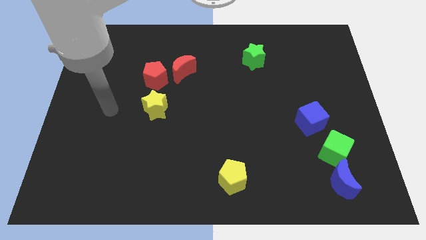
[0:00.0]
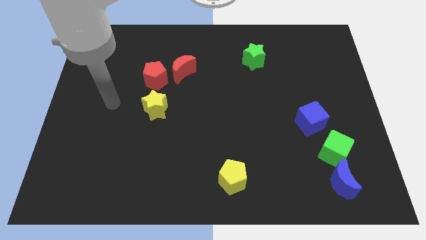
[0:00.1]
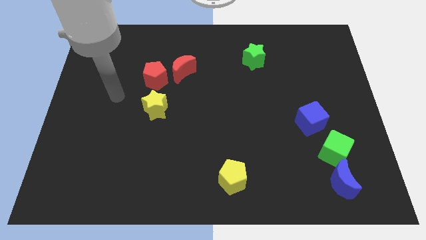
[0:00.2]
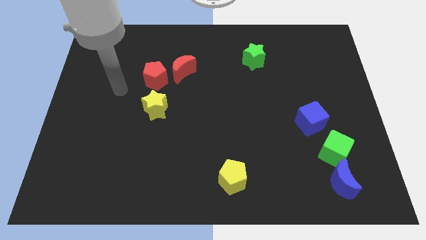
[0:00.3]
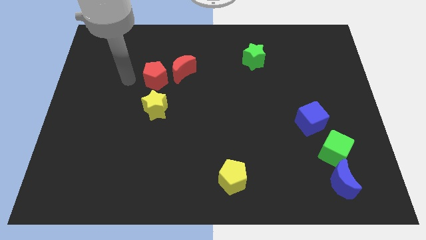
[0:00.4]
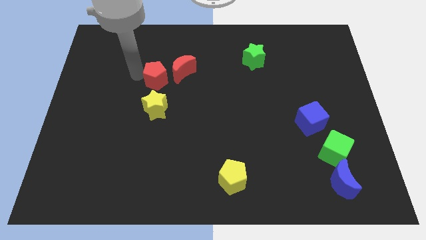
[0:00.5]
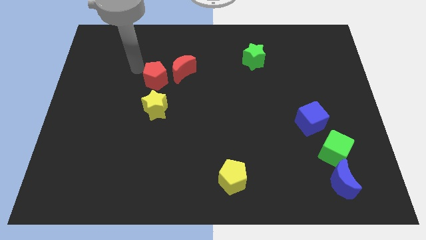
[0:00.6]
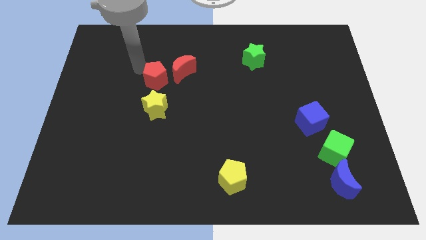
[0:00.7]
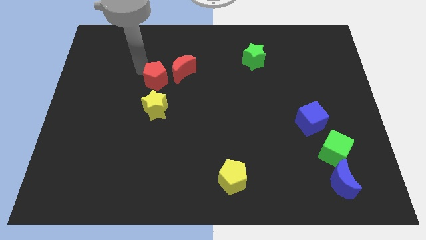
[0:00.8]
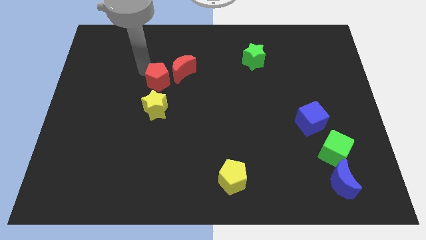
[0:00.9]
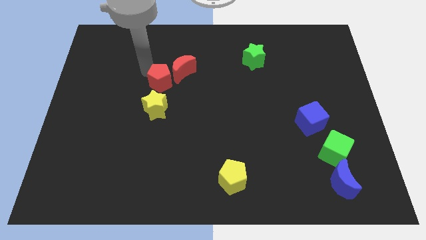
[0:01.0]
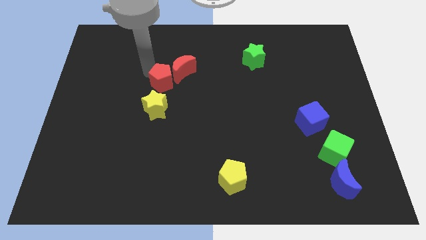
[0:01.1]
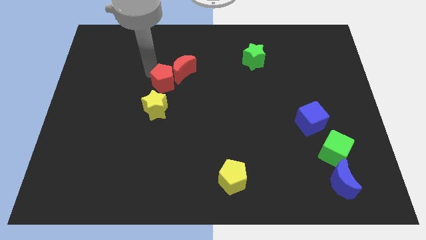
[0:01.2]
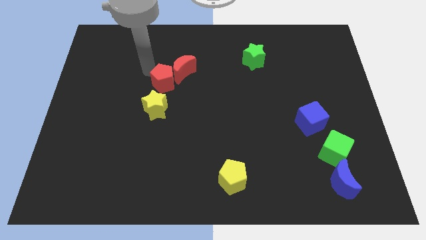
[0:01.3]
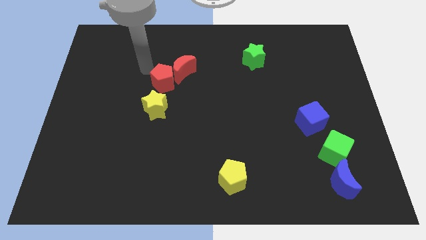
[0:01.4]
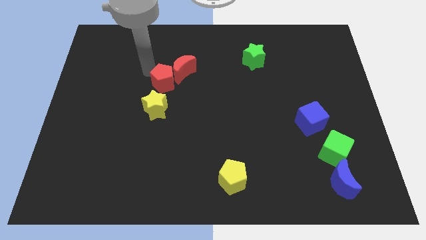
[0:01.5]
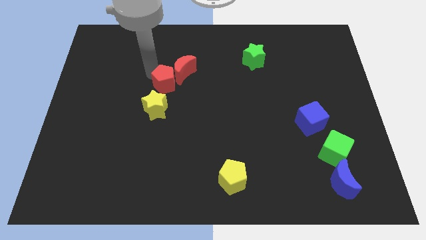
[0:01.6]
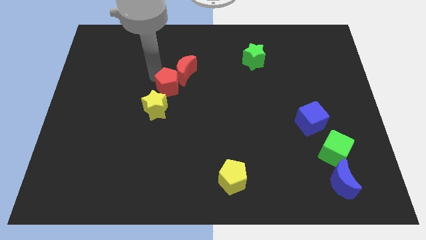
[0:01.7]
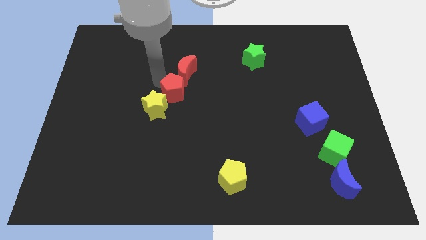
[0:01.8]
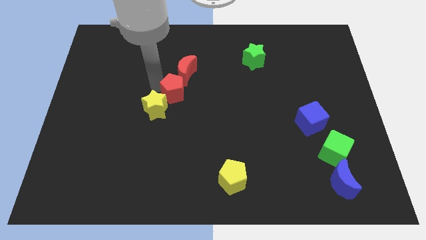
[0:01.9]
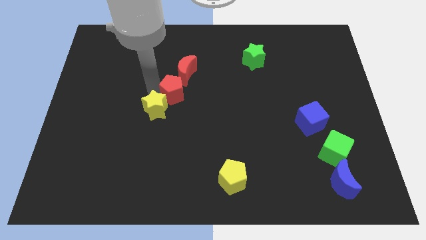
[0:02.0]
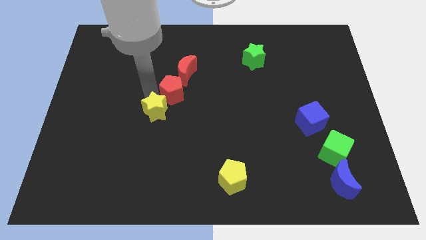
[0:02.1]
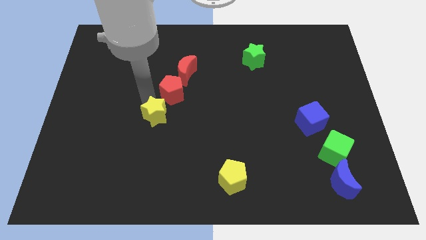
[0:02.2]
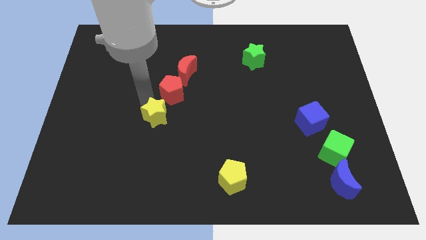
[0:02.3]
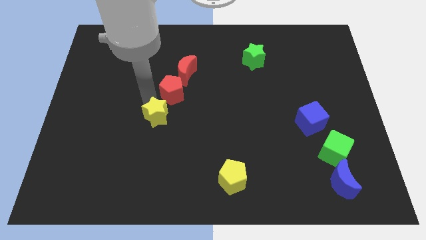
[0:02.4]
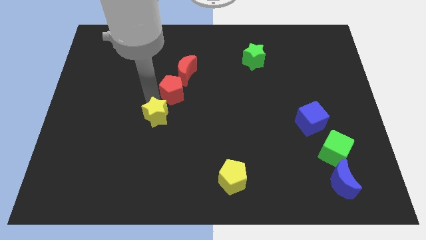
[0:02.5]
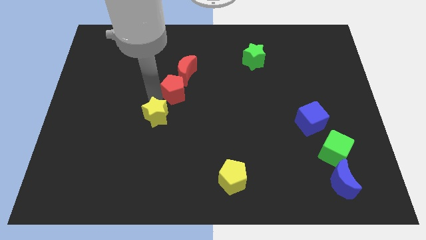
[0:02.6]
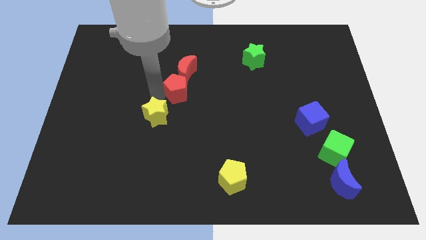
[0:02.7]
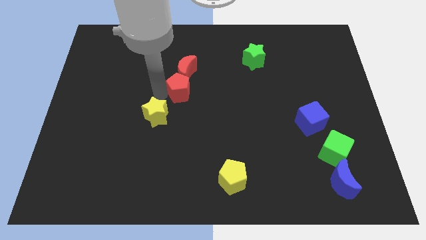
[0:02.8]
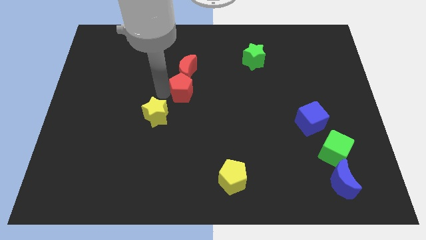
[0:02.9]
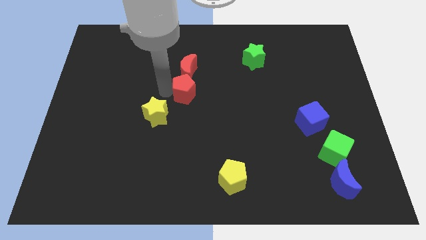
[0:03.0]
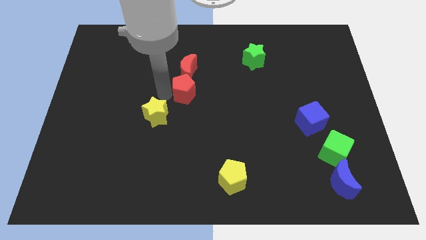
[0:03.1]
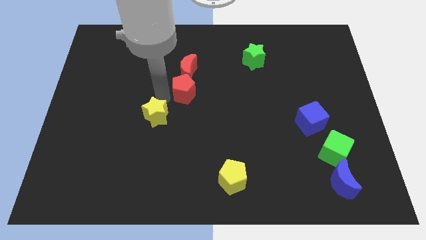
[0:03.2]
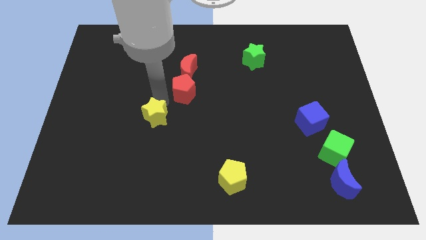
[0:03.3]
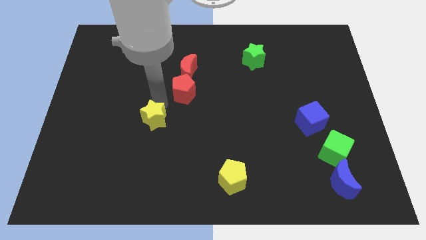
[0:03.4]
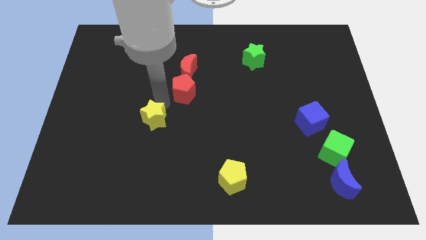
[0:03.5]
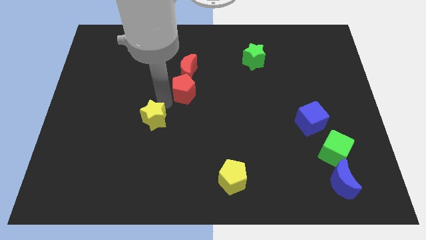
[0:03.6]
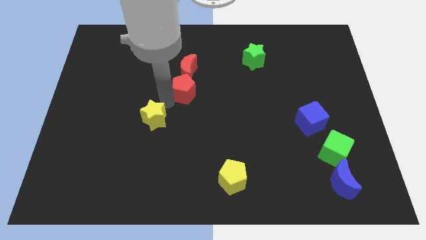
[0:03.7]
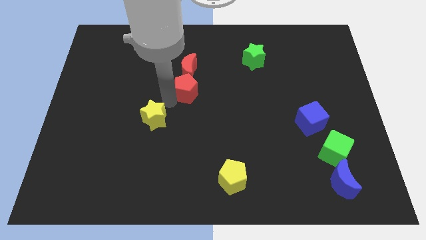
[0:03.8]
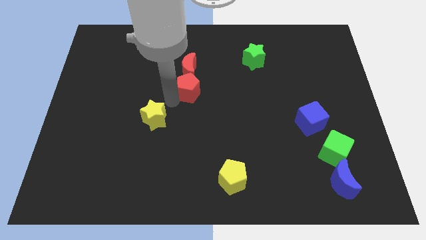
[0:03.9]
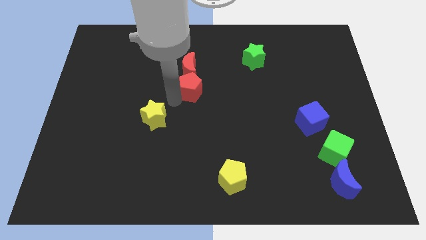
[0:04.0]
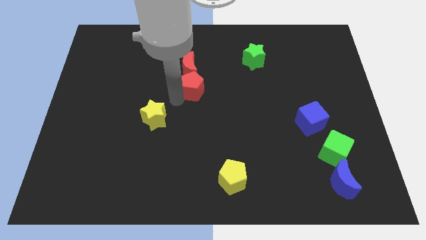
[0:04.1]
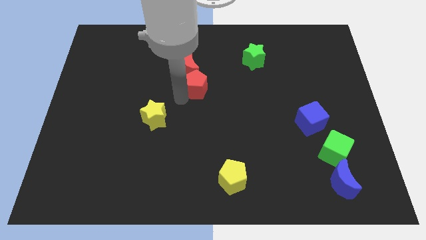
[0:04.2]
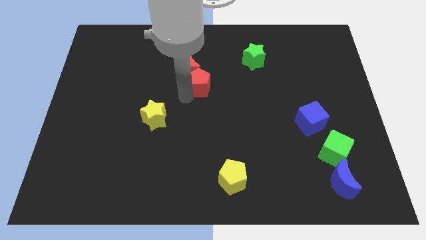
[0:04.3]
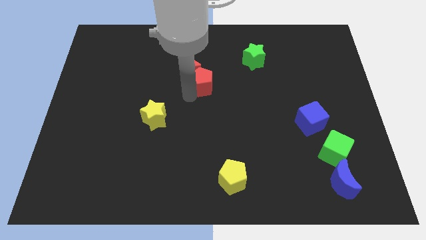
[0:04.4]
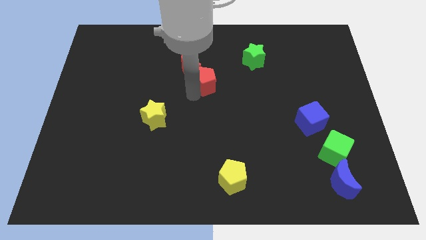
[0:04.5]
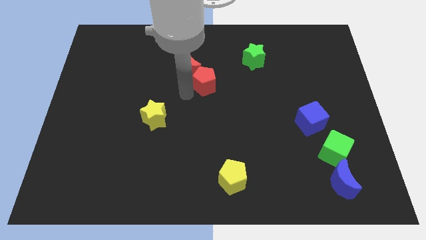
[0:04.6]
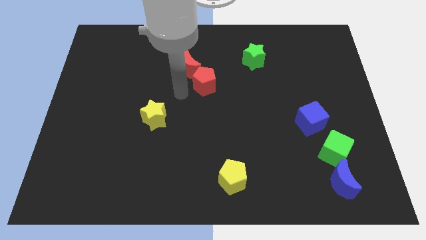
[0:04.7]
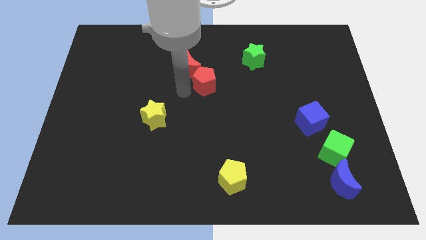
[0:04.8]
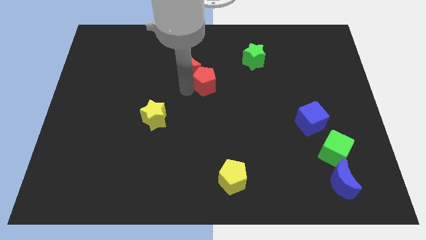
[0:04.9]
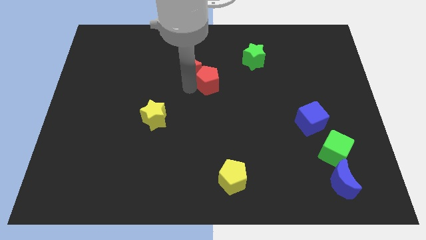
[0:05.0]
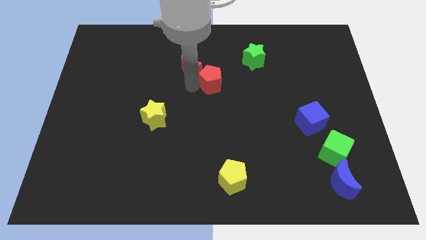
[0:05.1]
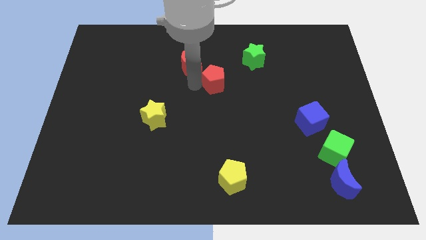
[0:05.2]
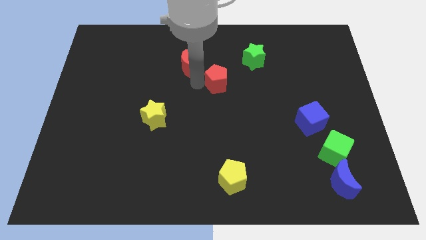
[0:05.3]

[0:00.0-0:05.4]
move the red pentagon diagonally down and to the left of the green star

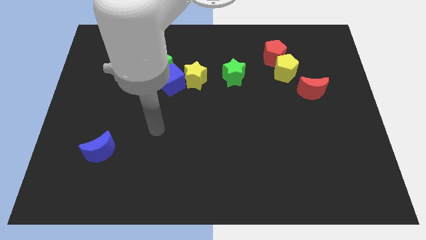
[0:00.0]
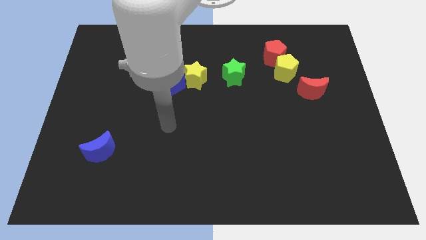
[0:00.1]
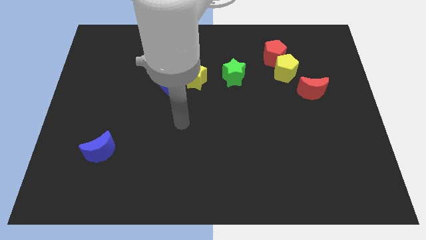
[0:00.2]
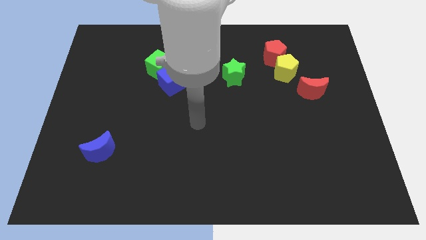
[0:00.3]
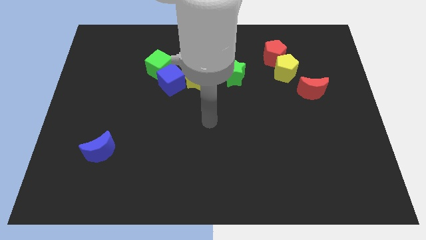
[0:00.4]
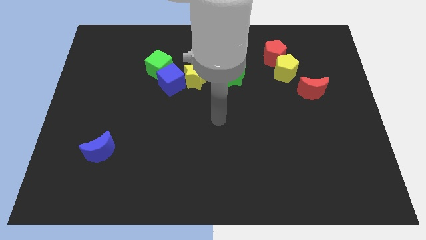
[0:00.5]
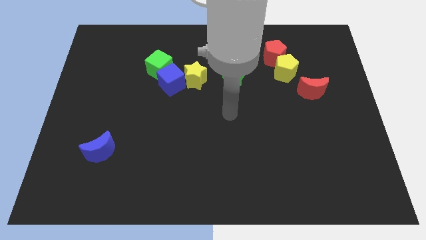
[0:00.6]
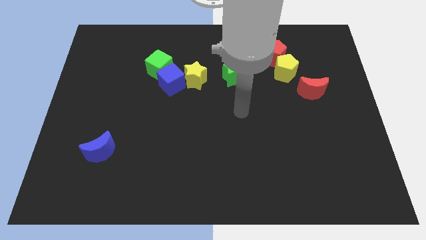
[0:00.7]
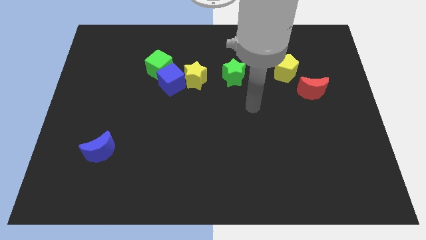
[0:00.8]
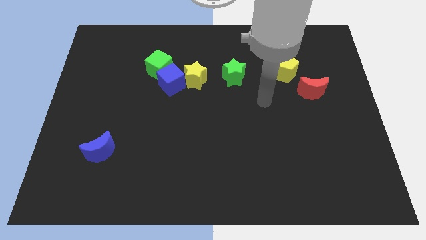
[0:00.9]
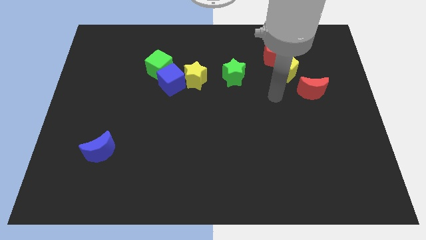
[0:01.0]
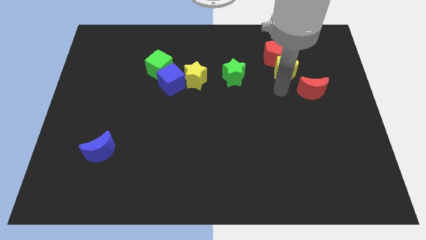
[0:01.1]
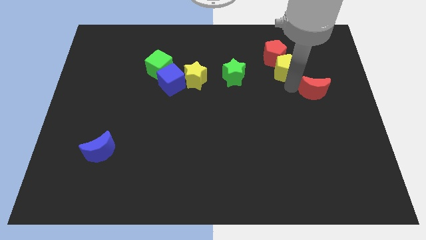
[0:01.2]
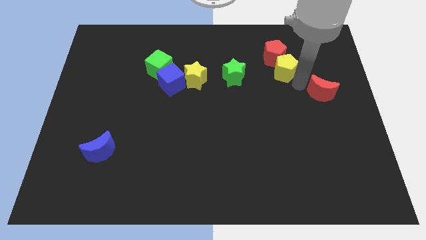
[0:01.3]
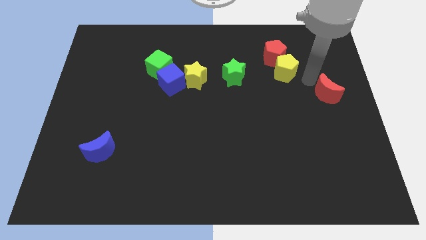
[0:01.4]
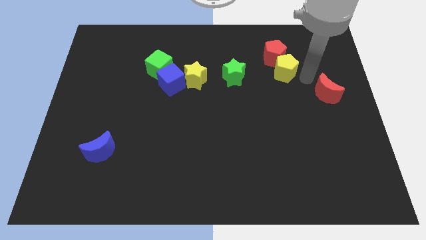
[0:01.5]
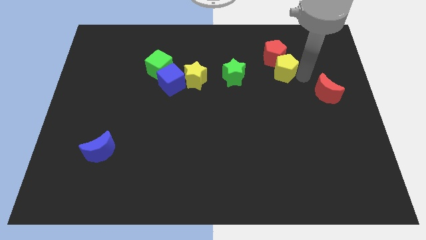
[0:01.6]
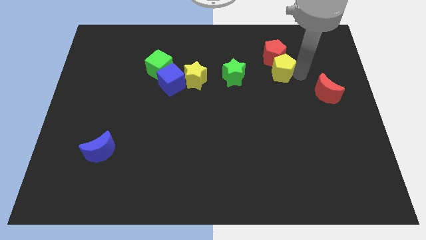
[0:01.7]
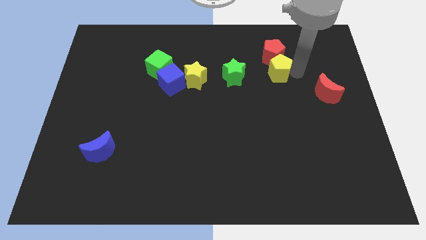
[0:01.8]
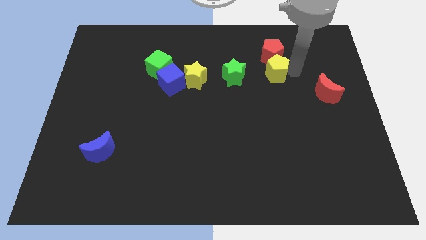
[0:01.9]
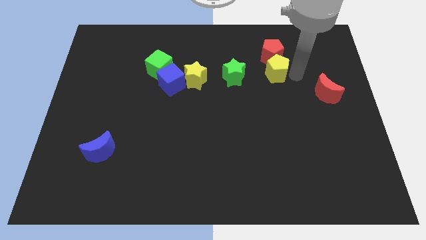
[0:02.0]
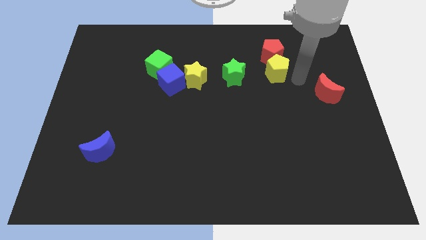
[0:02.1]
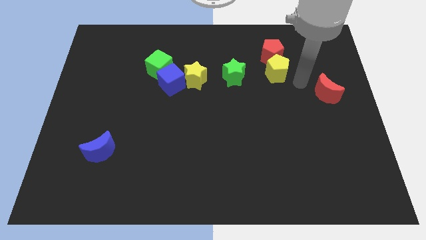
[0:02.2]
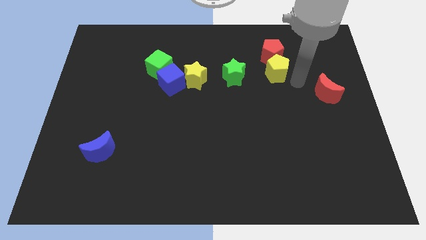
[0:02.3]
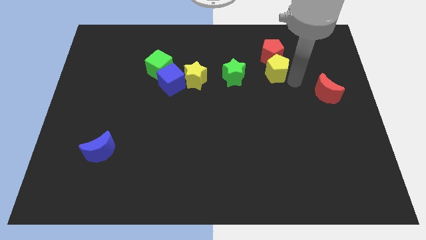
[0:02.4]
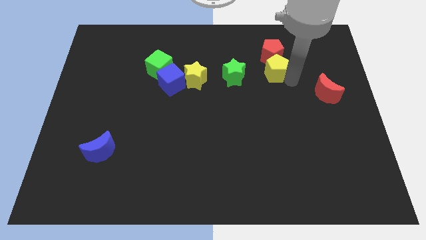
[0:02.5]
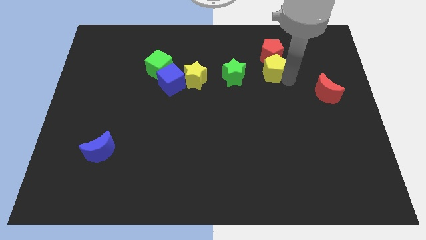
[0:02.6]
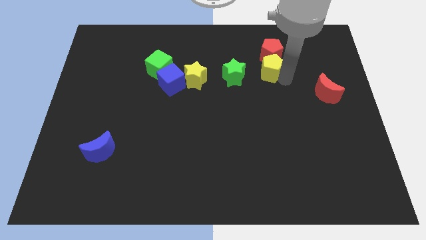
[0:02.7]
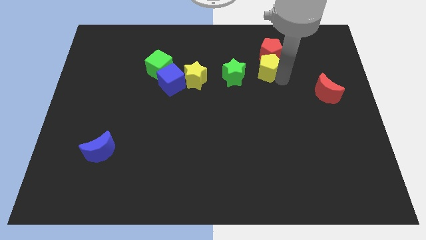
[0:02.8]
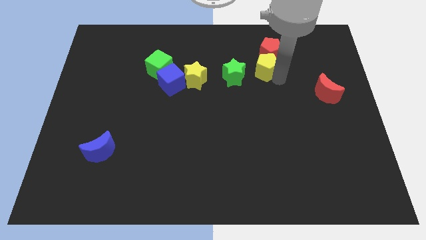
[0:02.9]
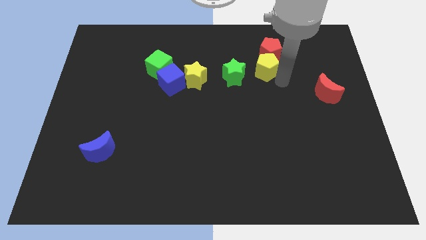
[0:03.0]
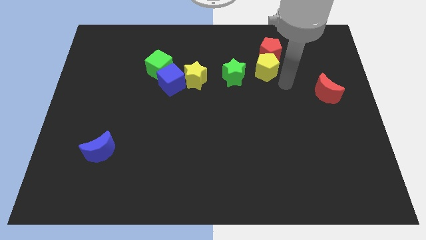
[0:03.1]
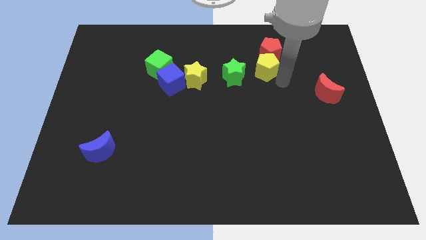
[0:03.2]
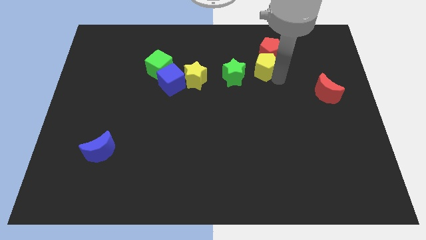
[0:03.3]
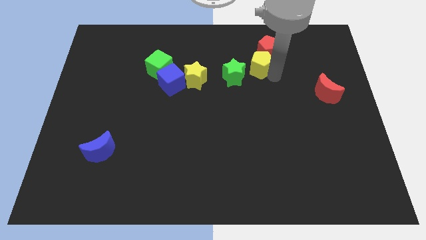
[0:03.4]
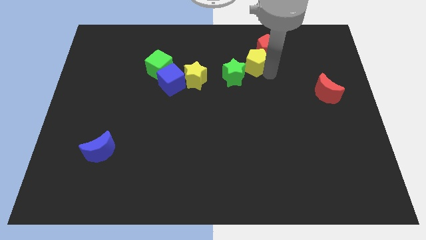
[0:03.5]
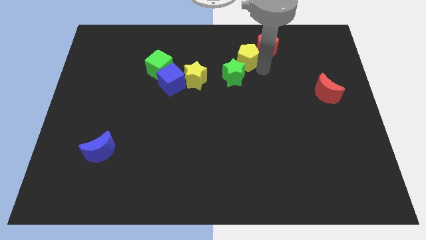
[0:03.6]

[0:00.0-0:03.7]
move the yellow pentagon to the left of the red pentagon
